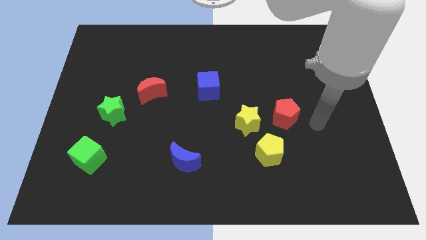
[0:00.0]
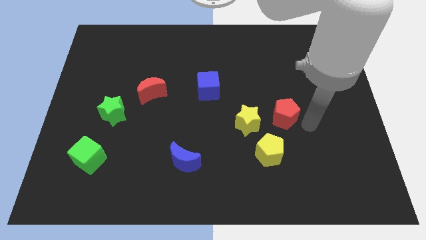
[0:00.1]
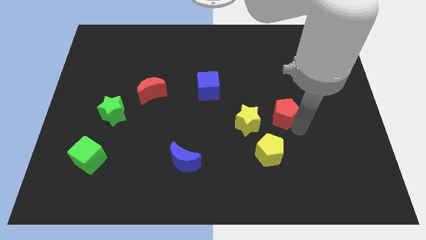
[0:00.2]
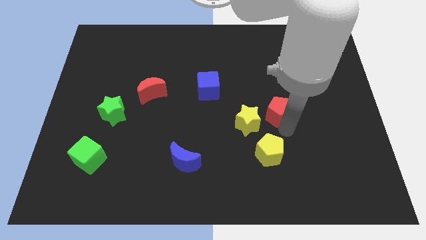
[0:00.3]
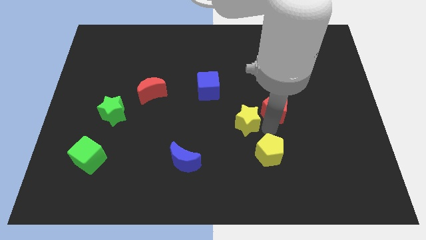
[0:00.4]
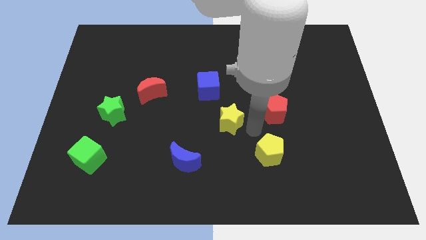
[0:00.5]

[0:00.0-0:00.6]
separate the yellow pentagon from the yellow star

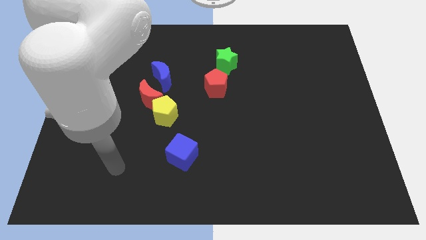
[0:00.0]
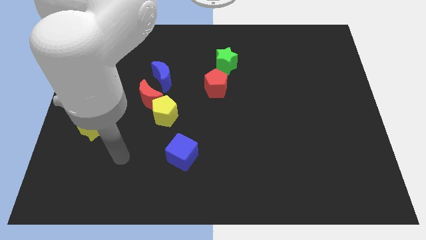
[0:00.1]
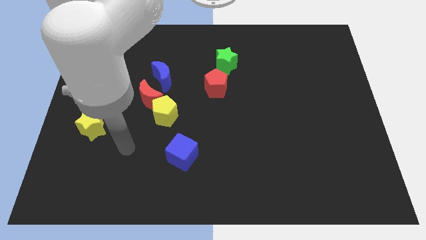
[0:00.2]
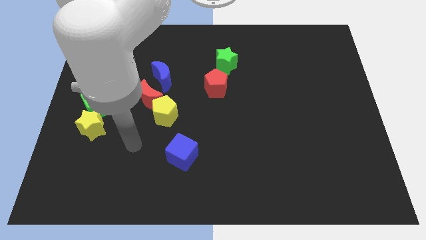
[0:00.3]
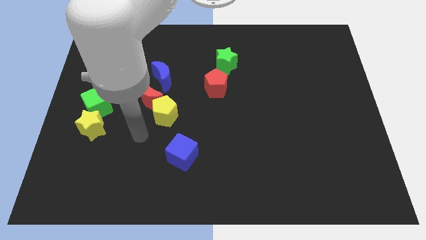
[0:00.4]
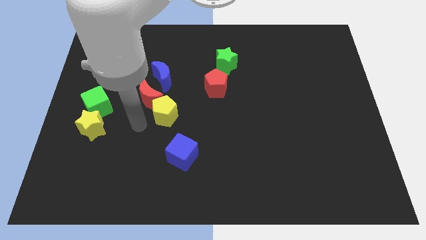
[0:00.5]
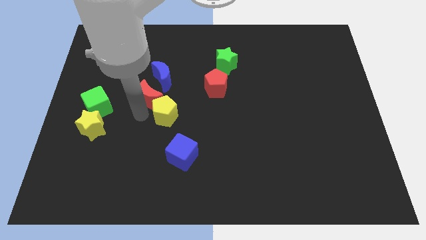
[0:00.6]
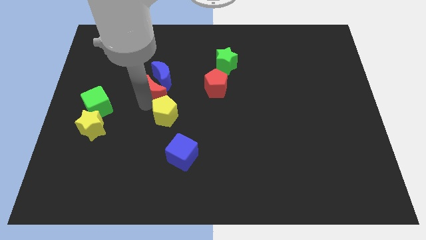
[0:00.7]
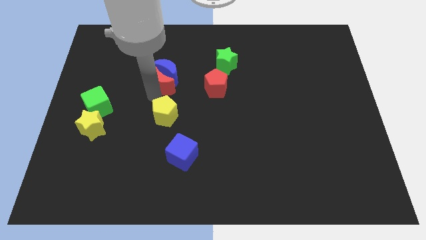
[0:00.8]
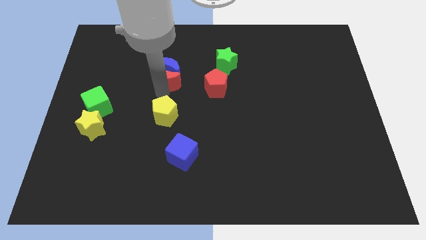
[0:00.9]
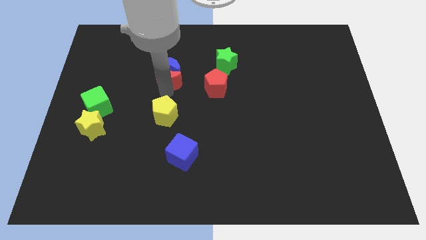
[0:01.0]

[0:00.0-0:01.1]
pull the yellow pentagon apart from the red moon

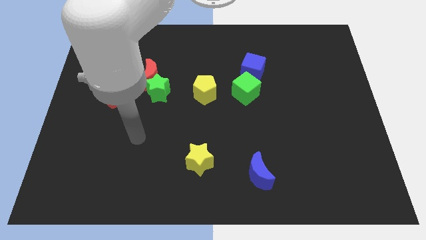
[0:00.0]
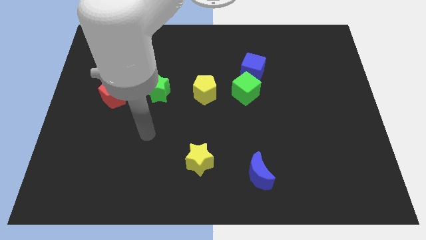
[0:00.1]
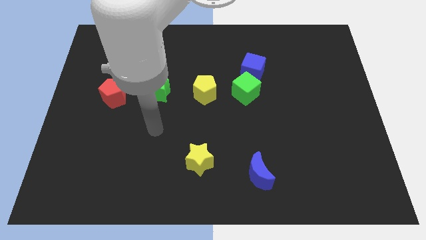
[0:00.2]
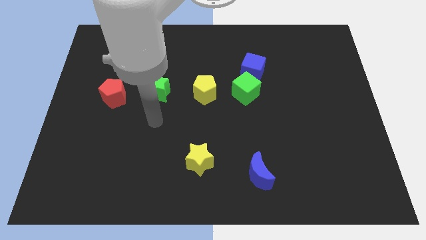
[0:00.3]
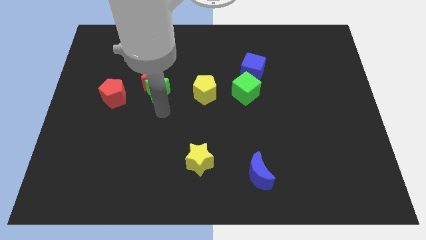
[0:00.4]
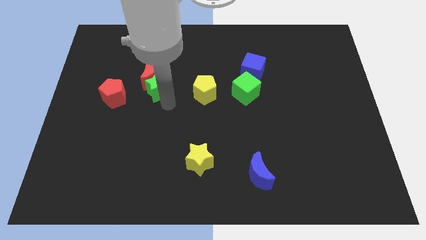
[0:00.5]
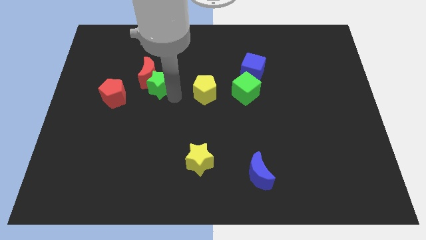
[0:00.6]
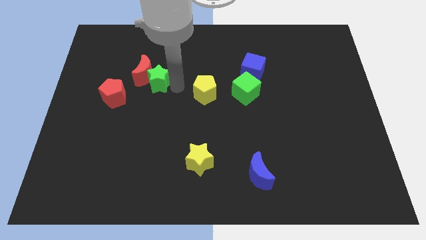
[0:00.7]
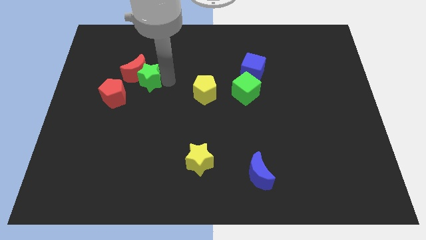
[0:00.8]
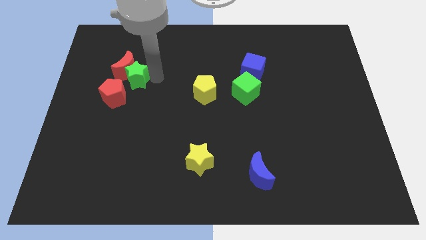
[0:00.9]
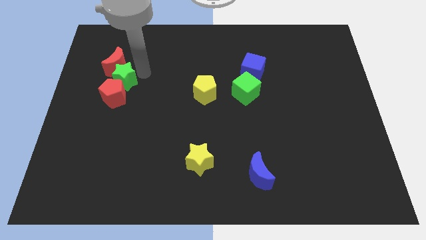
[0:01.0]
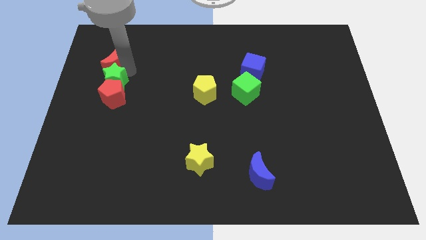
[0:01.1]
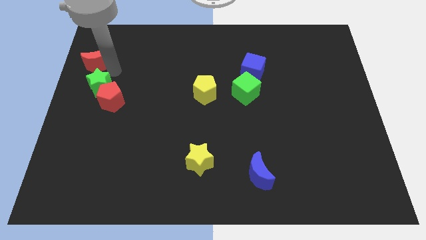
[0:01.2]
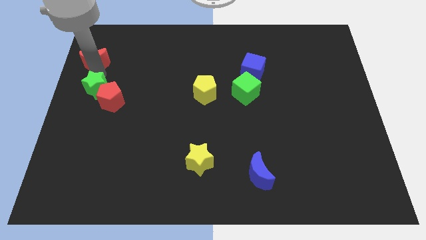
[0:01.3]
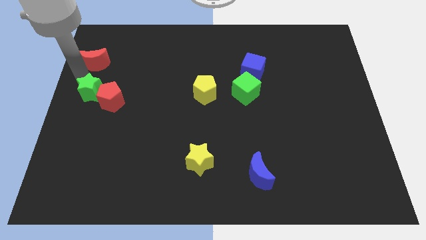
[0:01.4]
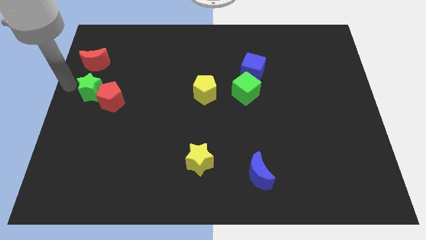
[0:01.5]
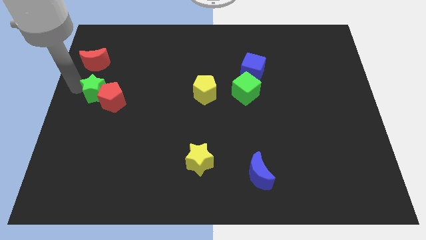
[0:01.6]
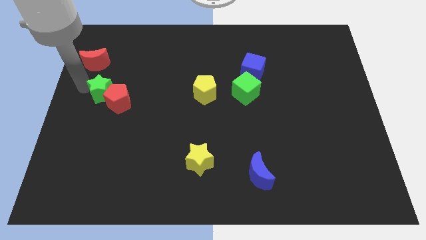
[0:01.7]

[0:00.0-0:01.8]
separate the green star from the red moon

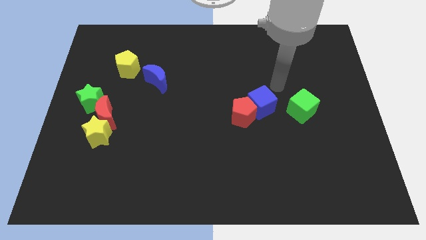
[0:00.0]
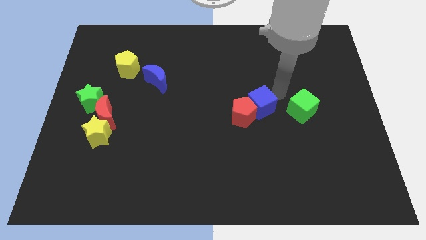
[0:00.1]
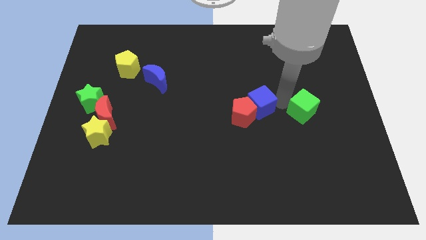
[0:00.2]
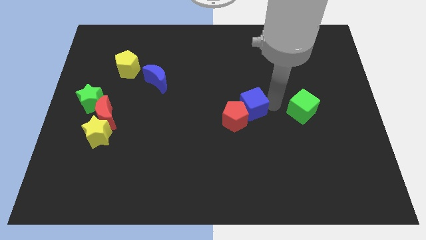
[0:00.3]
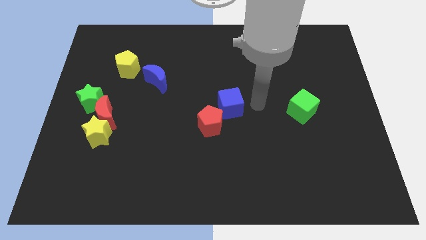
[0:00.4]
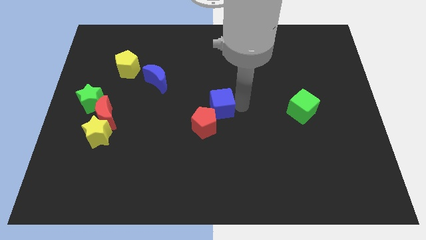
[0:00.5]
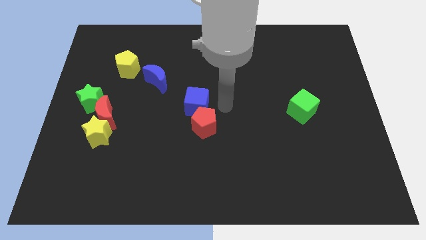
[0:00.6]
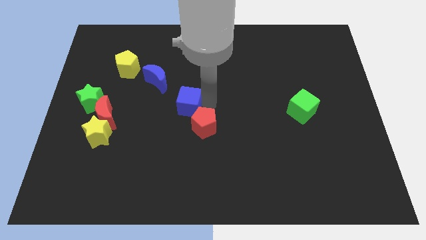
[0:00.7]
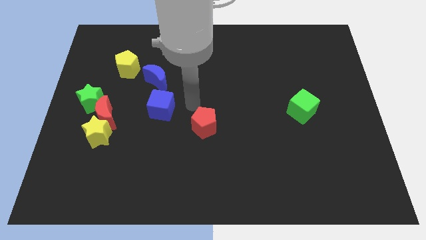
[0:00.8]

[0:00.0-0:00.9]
pull the red pentagon apart from the blue cube

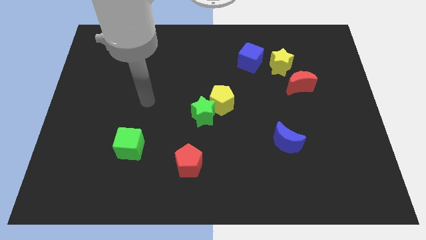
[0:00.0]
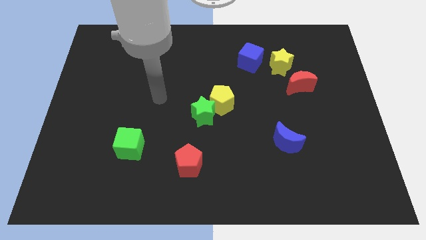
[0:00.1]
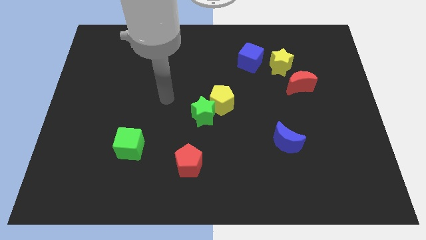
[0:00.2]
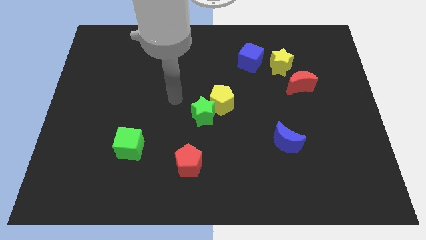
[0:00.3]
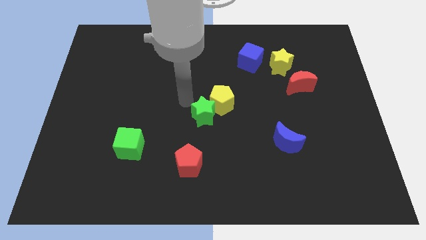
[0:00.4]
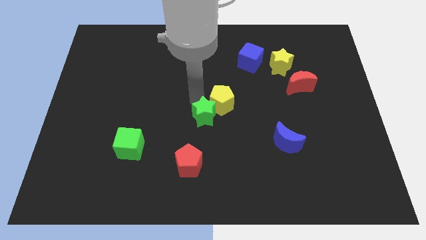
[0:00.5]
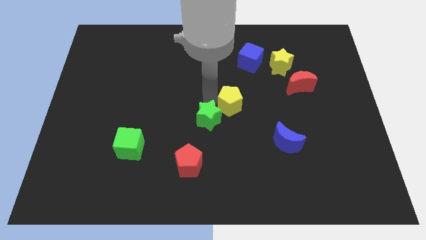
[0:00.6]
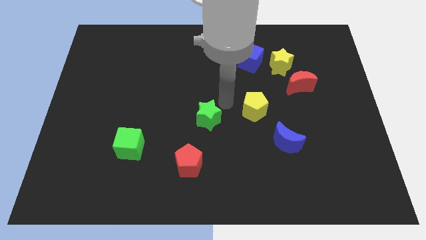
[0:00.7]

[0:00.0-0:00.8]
separate the green star from the yellow pentagon

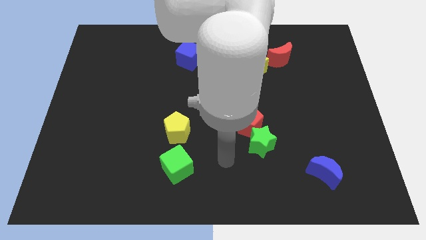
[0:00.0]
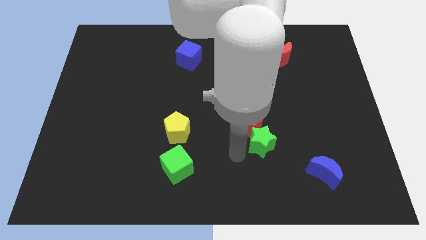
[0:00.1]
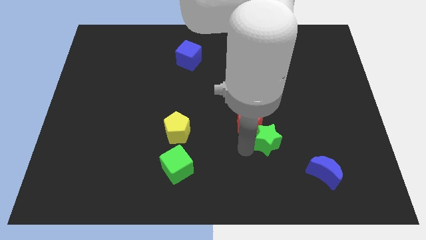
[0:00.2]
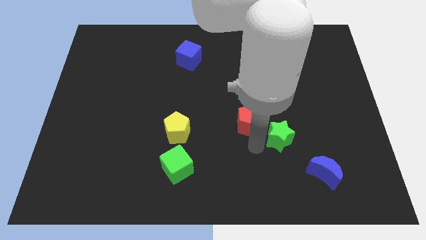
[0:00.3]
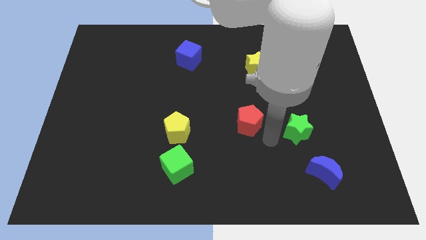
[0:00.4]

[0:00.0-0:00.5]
separate the red pentagon from the green star

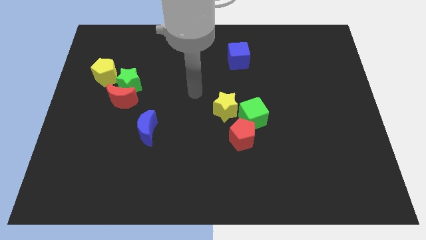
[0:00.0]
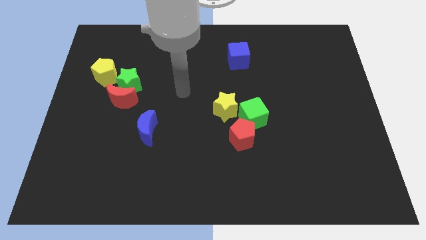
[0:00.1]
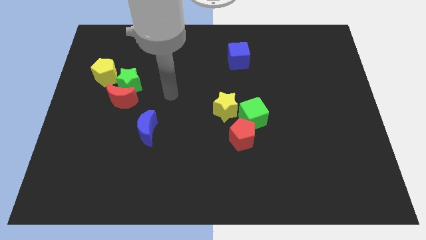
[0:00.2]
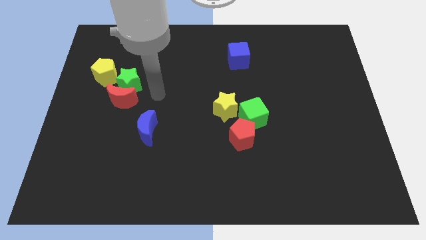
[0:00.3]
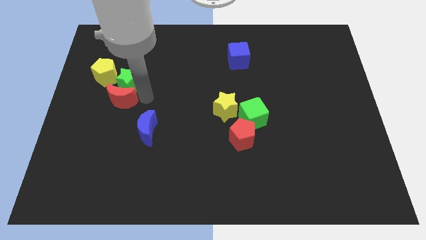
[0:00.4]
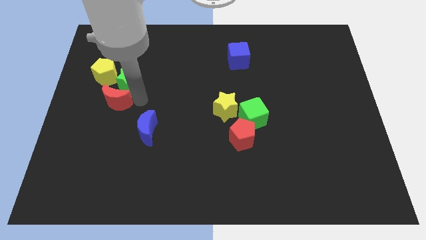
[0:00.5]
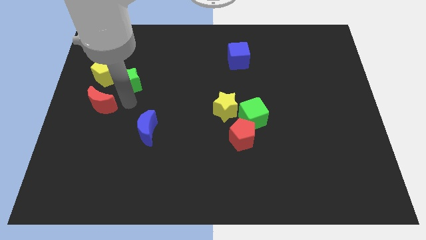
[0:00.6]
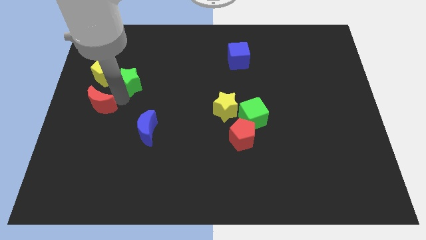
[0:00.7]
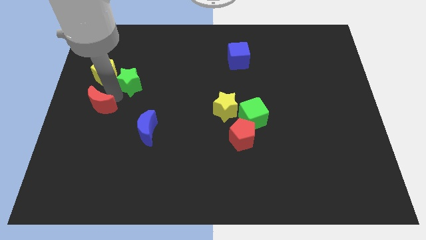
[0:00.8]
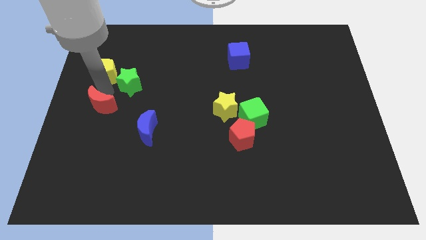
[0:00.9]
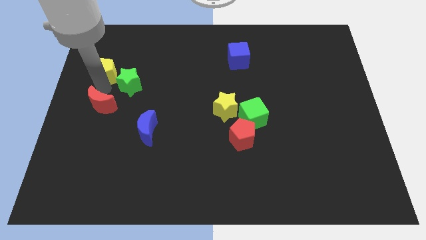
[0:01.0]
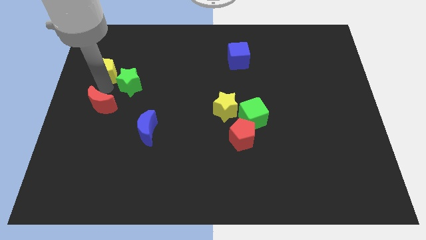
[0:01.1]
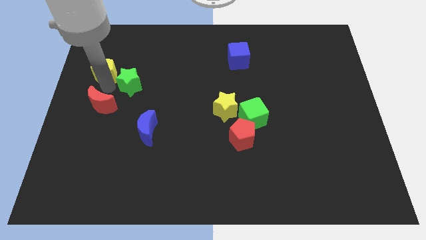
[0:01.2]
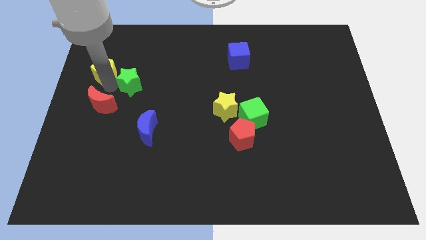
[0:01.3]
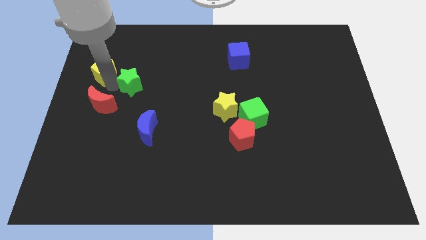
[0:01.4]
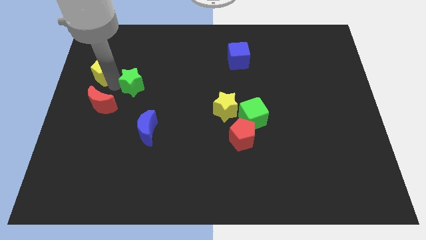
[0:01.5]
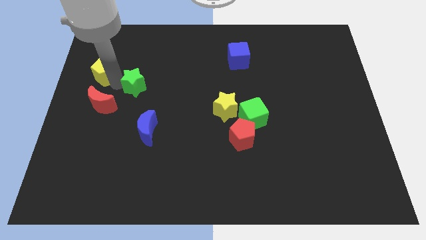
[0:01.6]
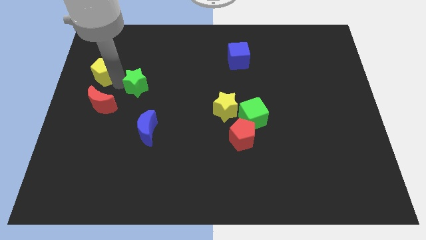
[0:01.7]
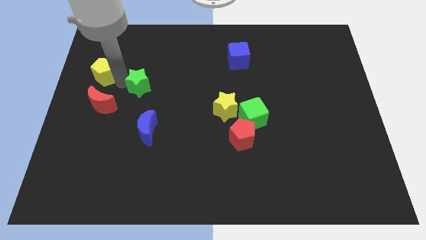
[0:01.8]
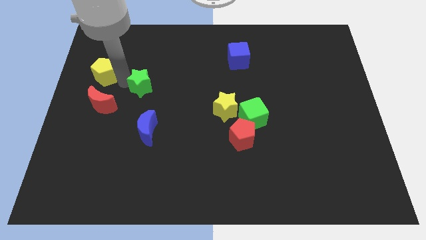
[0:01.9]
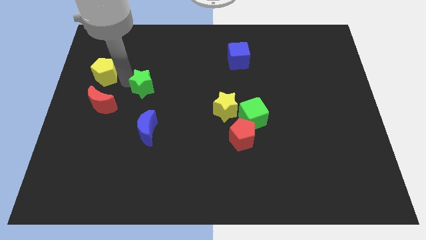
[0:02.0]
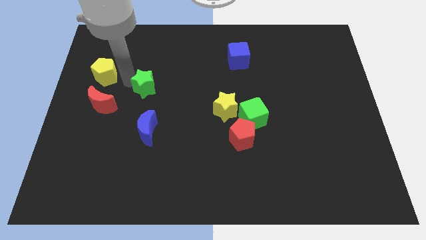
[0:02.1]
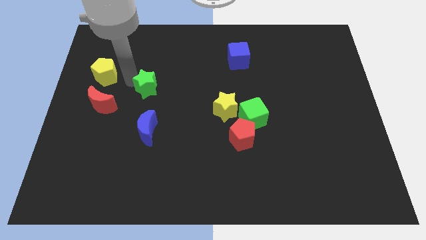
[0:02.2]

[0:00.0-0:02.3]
separate the green star from the red moon and yellow pentagon

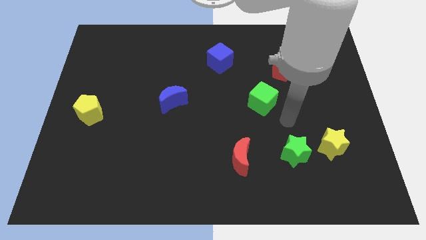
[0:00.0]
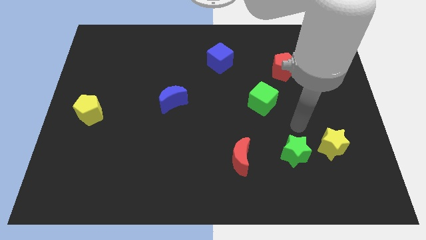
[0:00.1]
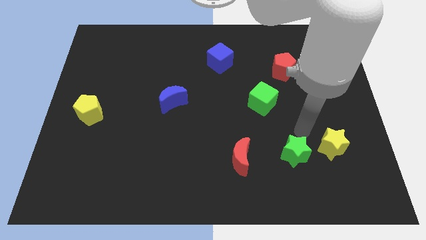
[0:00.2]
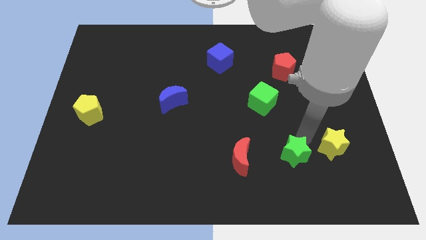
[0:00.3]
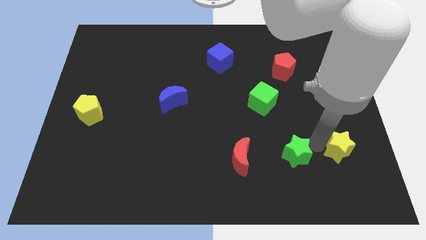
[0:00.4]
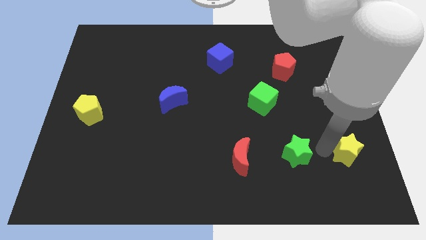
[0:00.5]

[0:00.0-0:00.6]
pull the green star apart from the yellow star

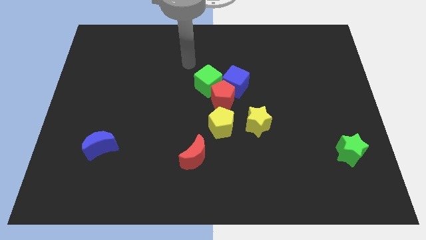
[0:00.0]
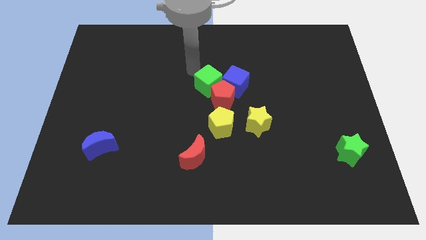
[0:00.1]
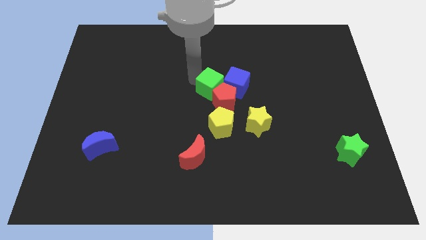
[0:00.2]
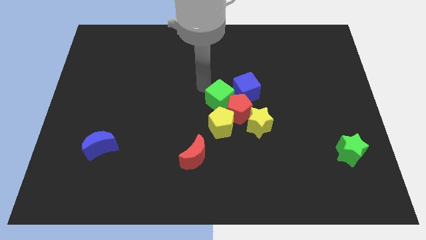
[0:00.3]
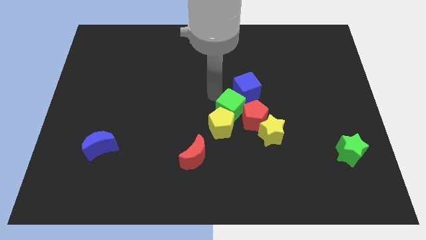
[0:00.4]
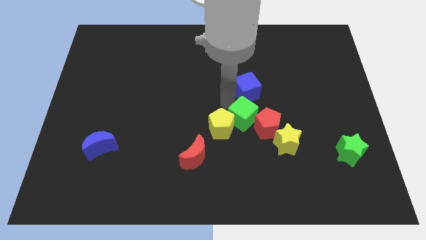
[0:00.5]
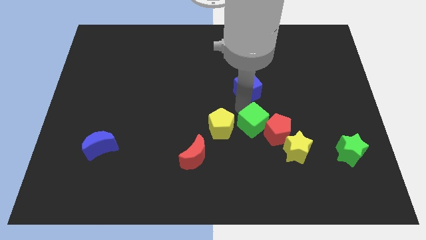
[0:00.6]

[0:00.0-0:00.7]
pull the blue cube apart from the red pentagon and green cube
